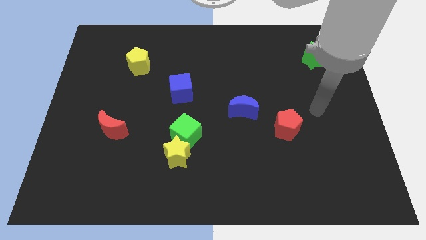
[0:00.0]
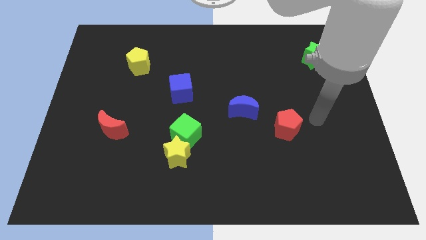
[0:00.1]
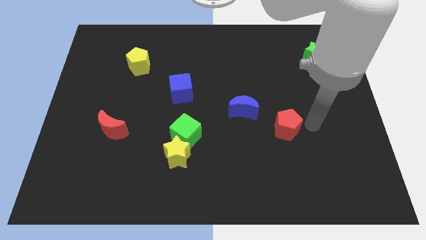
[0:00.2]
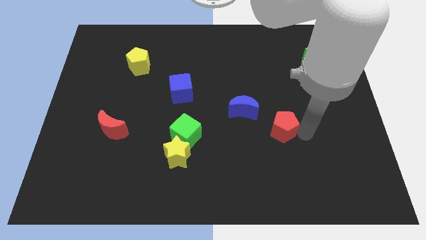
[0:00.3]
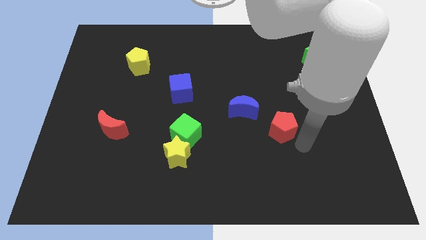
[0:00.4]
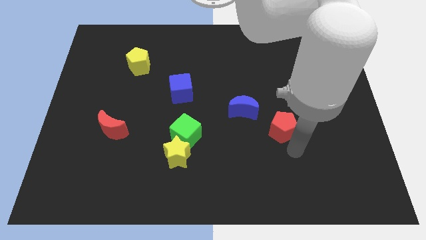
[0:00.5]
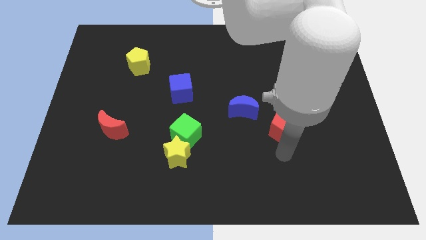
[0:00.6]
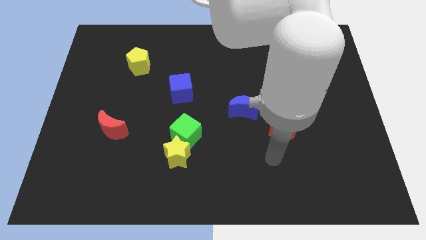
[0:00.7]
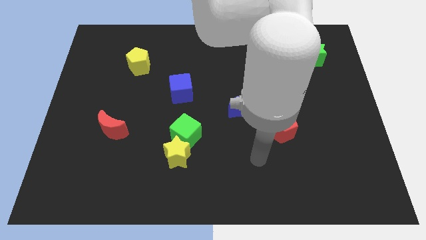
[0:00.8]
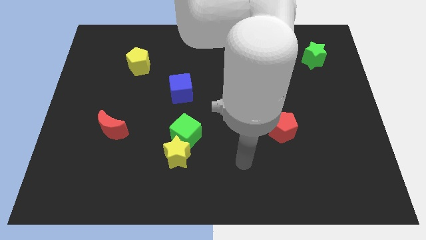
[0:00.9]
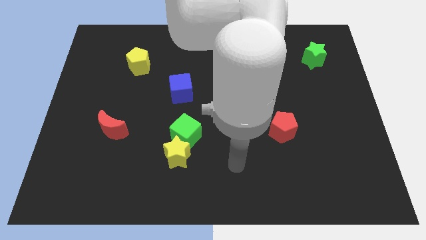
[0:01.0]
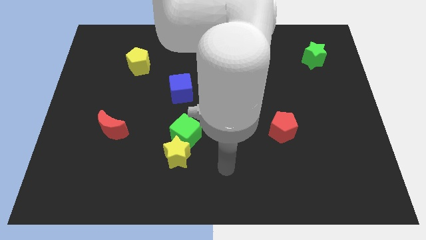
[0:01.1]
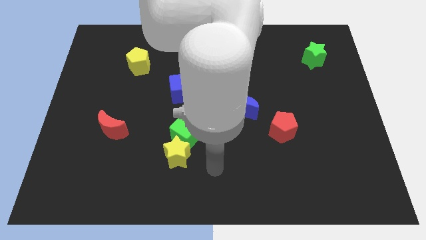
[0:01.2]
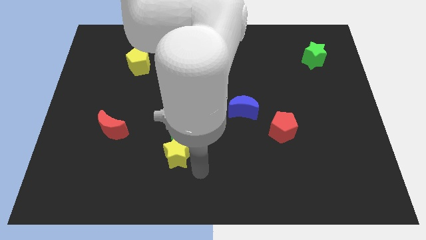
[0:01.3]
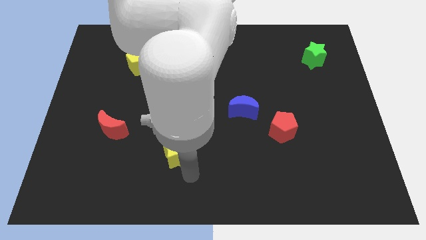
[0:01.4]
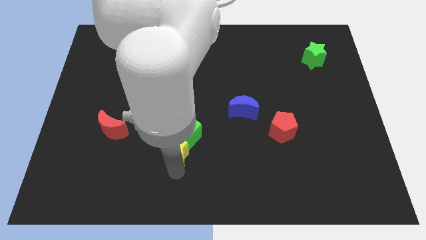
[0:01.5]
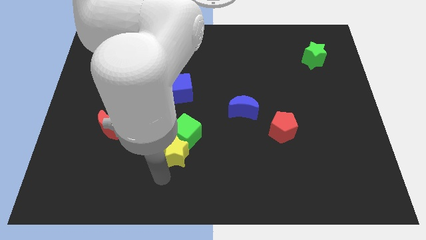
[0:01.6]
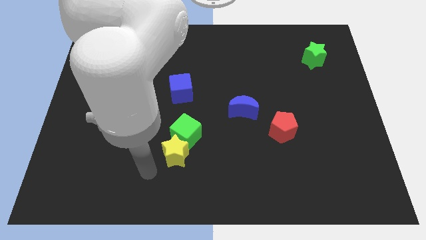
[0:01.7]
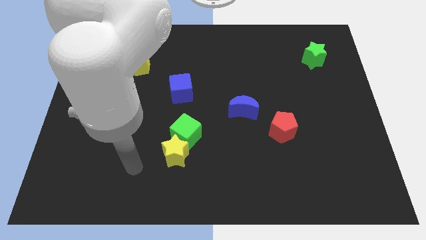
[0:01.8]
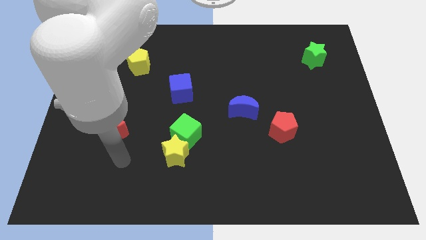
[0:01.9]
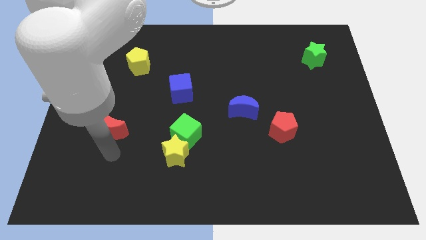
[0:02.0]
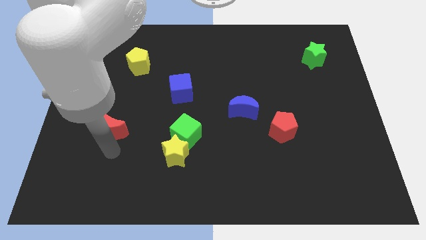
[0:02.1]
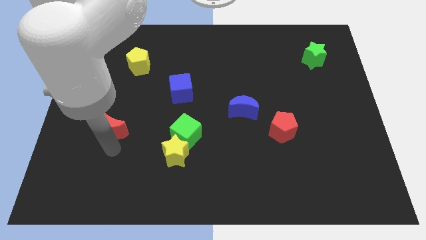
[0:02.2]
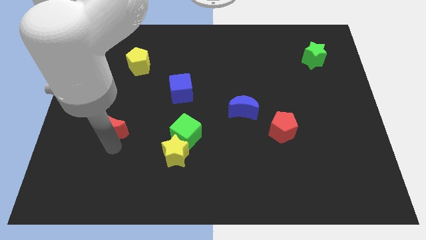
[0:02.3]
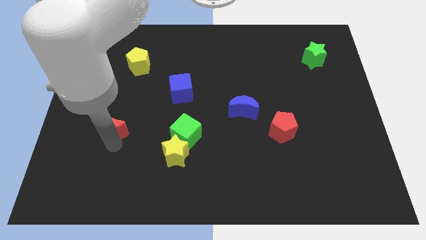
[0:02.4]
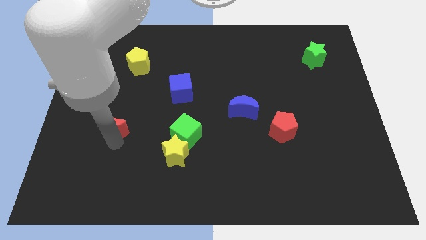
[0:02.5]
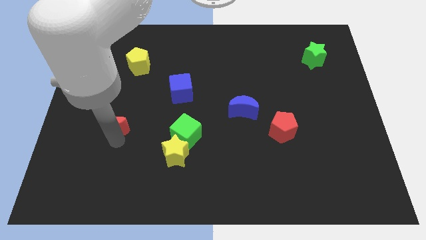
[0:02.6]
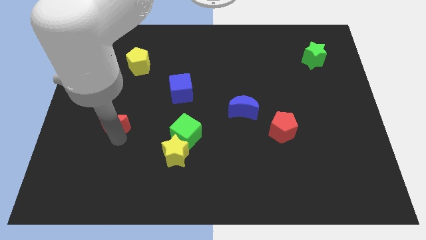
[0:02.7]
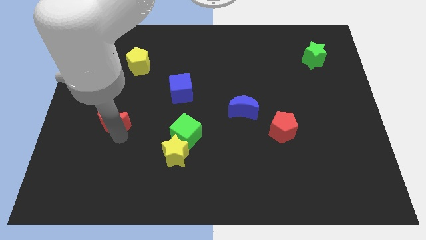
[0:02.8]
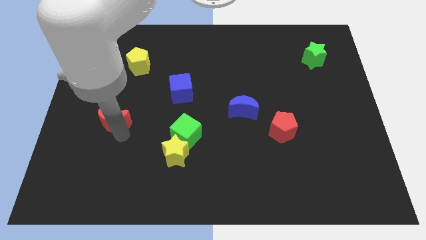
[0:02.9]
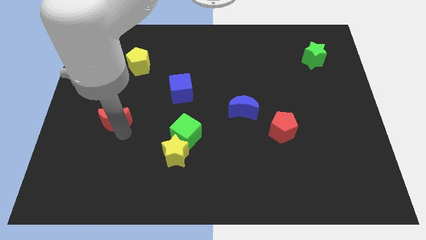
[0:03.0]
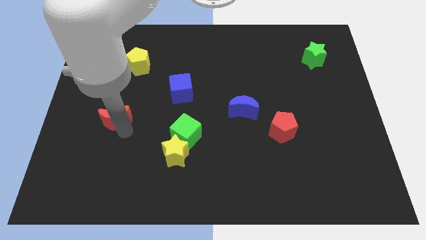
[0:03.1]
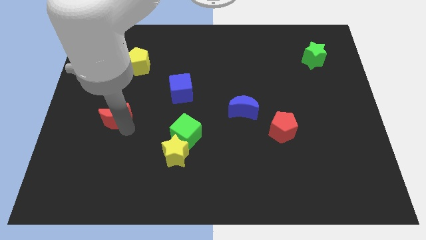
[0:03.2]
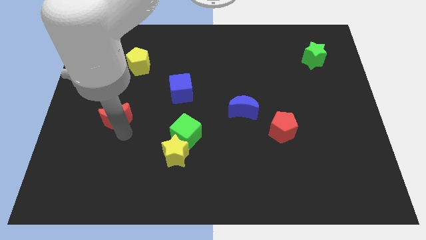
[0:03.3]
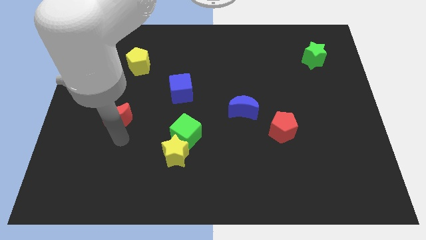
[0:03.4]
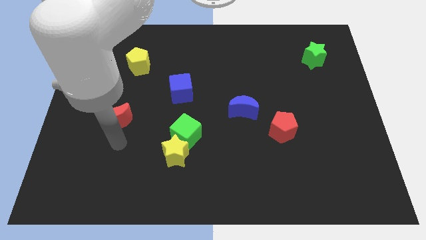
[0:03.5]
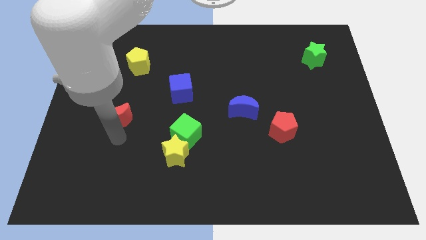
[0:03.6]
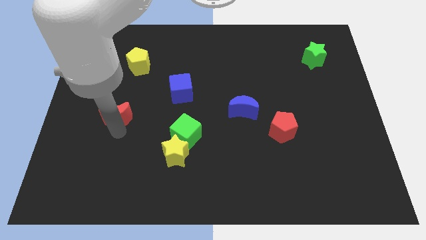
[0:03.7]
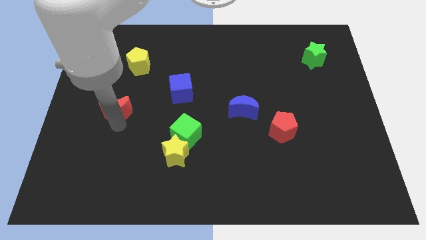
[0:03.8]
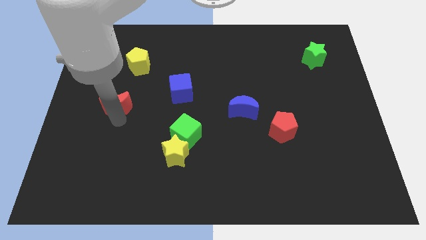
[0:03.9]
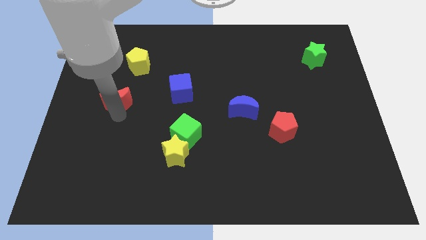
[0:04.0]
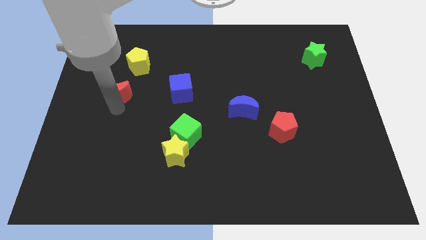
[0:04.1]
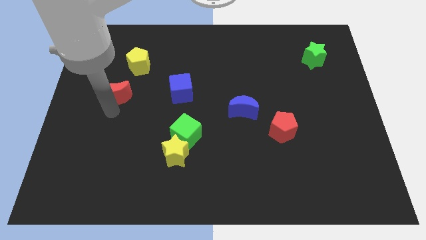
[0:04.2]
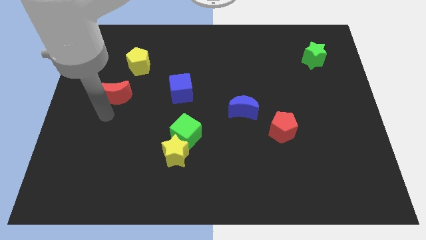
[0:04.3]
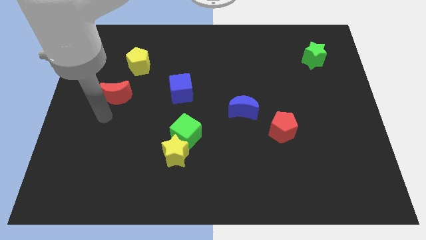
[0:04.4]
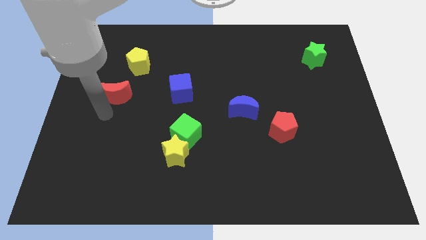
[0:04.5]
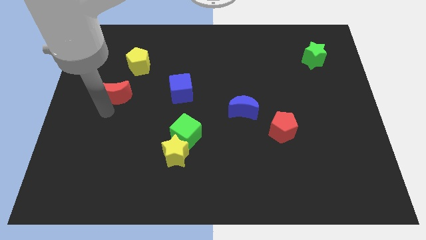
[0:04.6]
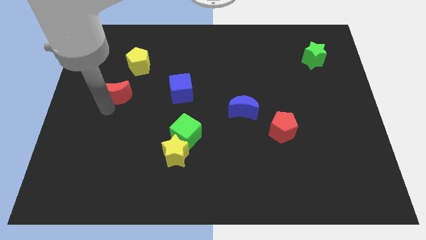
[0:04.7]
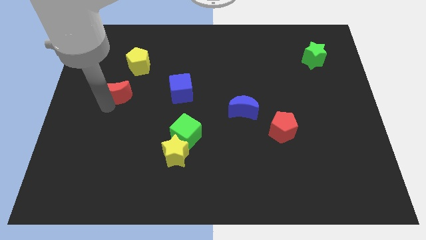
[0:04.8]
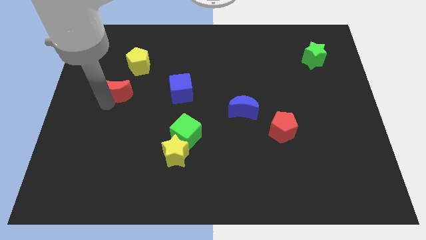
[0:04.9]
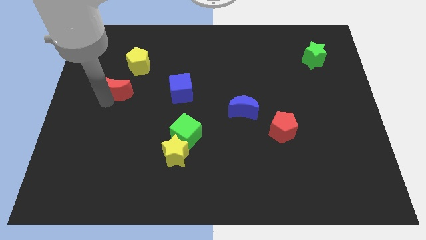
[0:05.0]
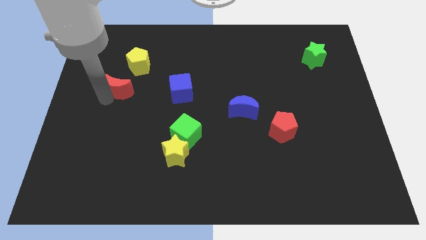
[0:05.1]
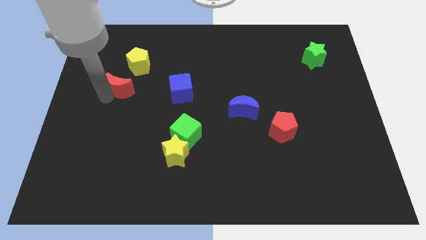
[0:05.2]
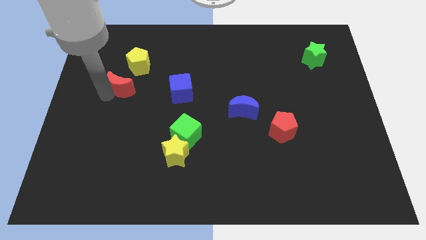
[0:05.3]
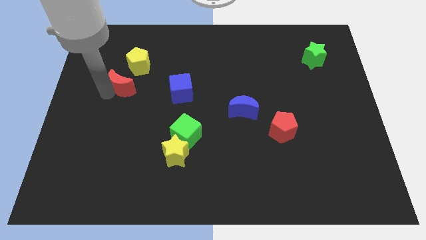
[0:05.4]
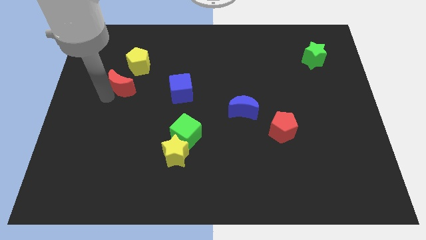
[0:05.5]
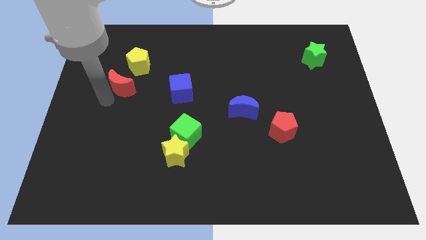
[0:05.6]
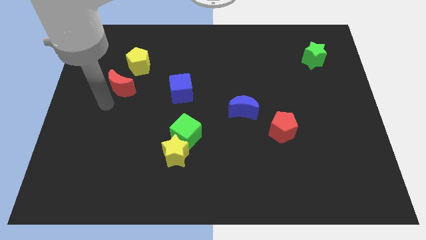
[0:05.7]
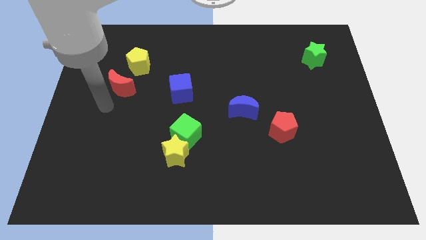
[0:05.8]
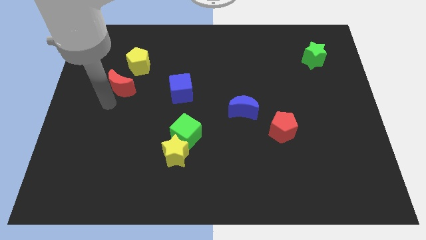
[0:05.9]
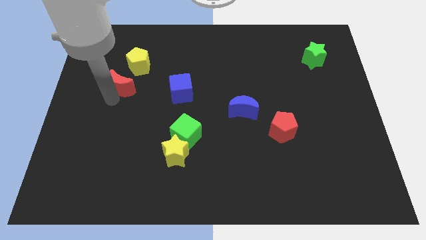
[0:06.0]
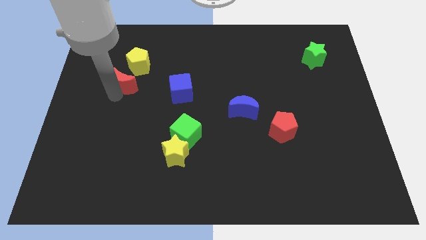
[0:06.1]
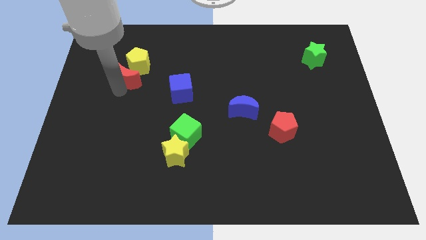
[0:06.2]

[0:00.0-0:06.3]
slide the red moon next to the yellow pentagon

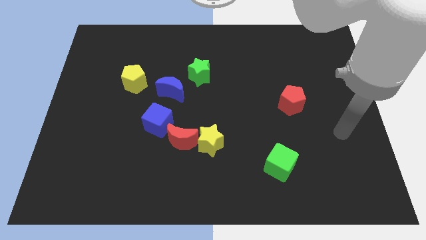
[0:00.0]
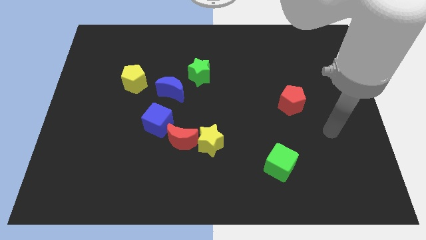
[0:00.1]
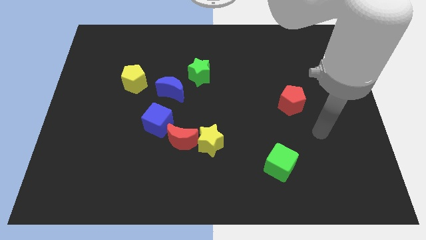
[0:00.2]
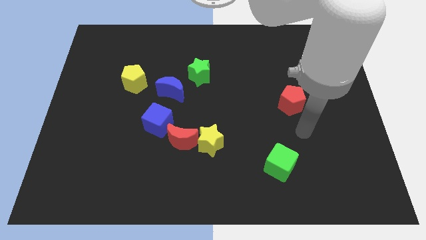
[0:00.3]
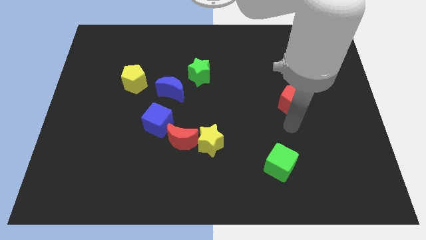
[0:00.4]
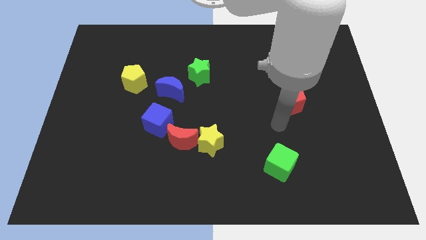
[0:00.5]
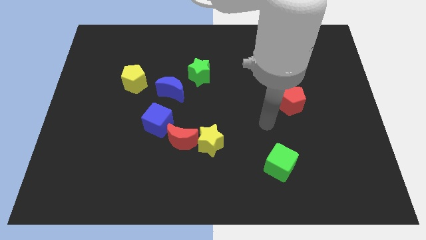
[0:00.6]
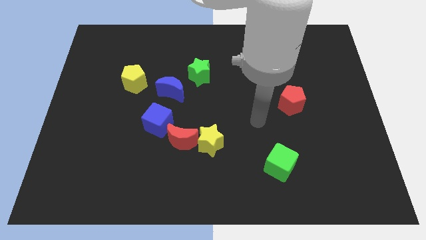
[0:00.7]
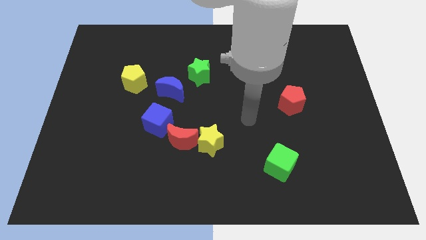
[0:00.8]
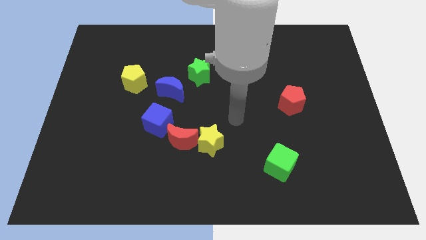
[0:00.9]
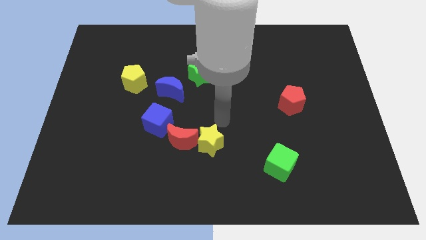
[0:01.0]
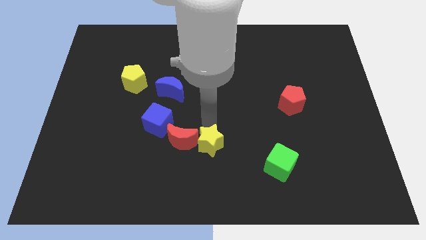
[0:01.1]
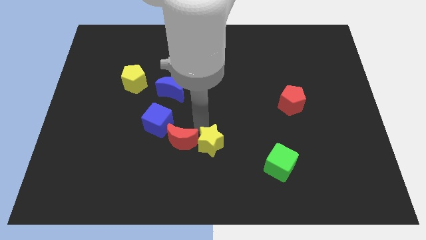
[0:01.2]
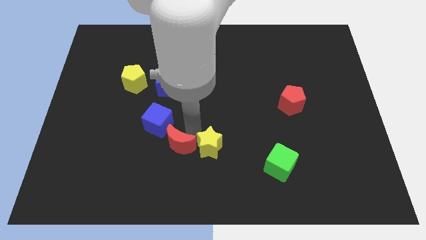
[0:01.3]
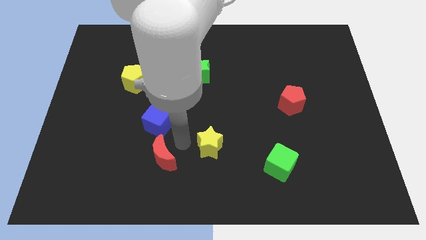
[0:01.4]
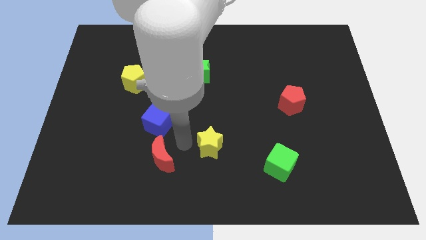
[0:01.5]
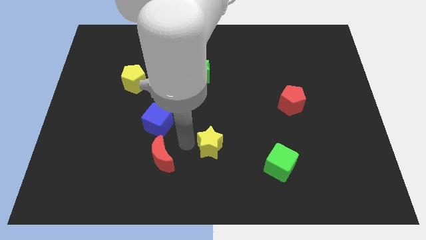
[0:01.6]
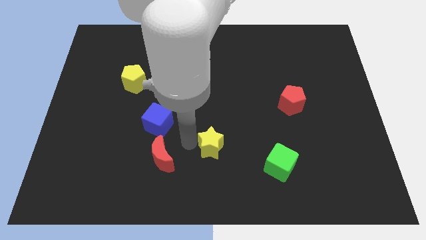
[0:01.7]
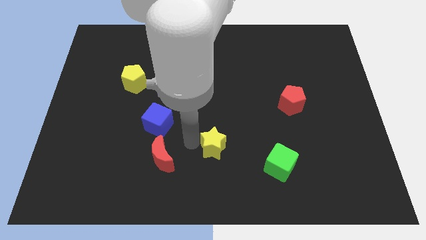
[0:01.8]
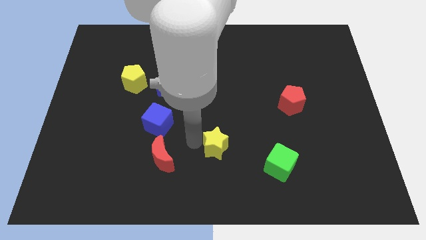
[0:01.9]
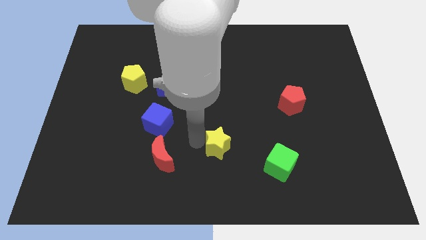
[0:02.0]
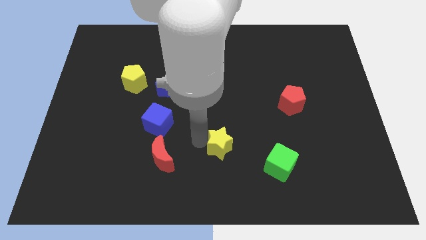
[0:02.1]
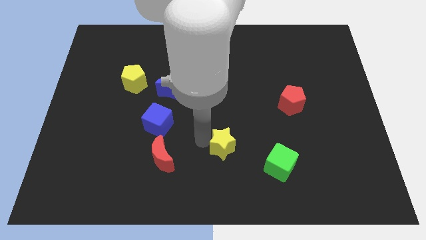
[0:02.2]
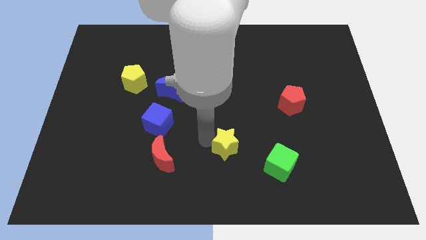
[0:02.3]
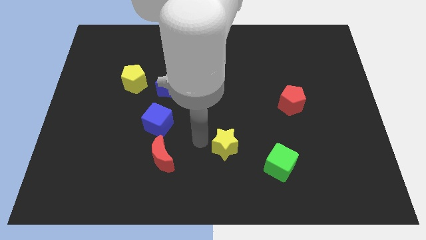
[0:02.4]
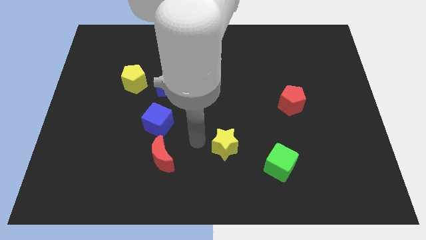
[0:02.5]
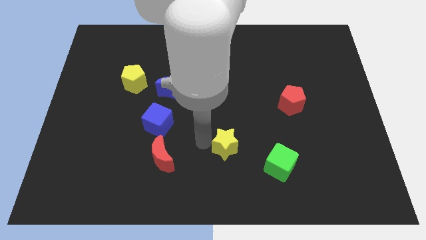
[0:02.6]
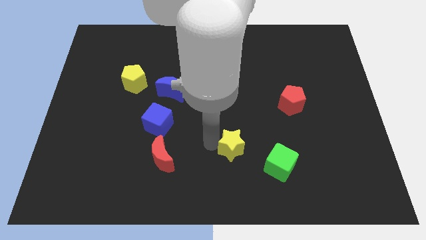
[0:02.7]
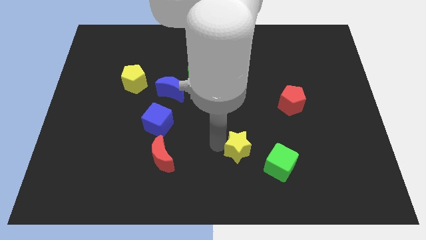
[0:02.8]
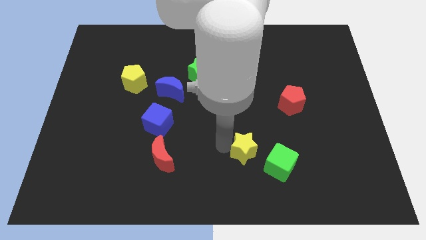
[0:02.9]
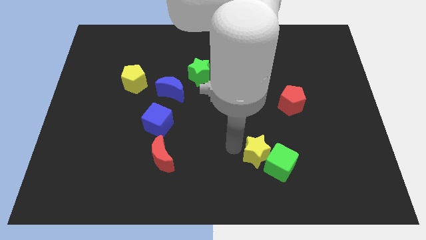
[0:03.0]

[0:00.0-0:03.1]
put the yellow star close to the green cube
